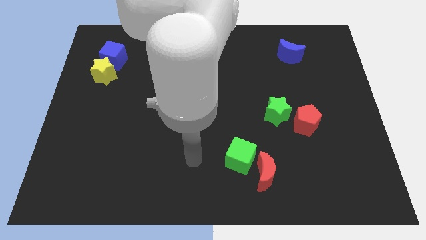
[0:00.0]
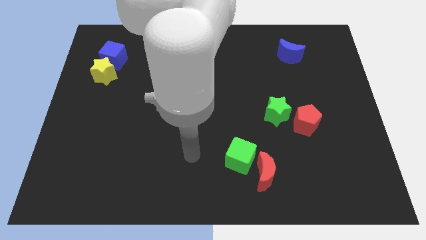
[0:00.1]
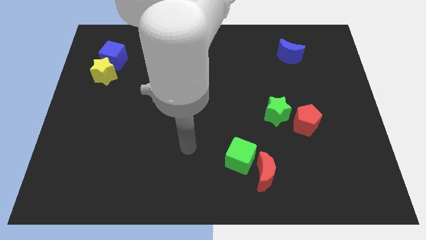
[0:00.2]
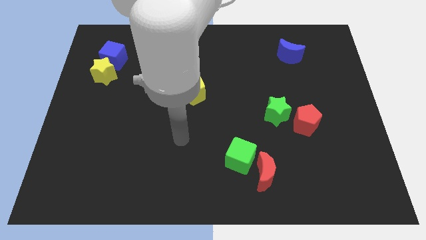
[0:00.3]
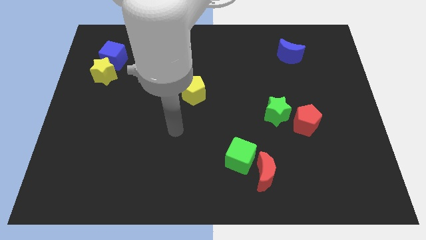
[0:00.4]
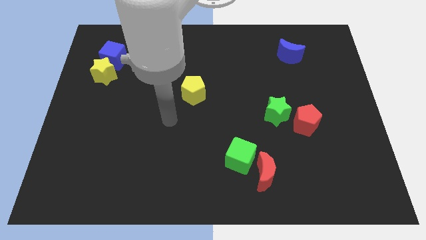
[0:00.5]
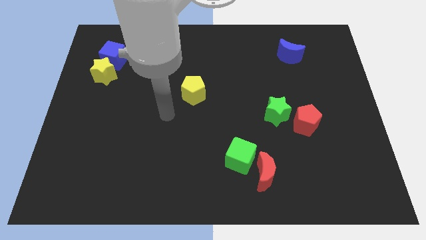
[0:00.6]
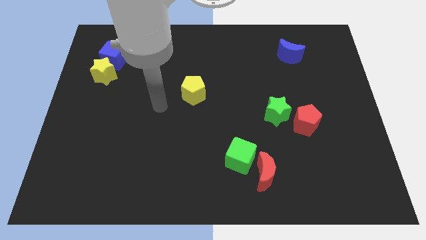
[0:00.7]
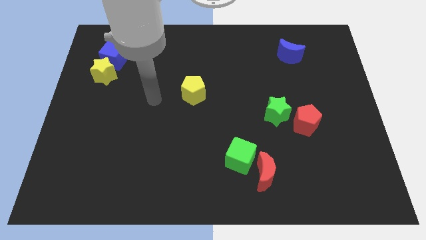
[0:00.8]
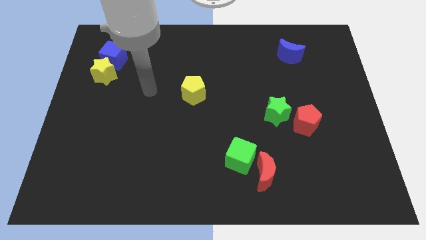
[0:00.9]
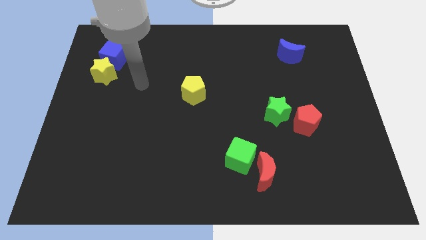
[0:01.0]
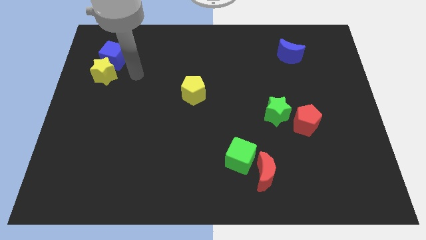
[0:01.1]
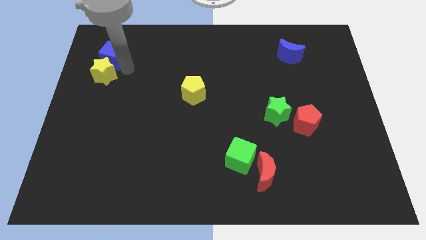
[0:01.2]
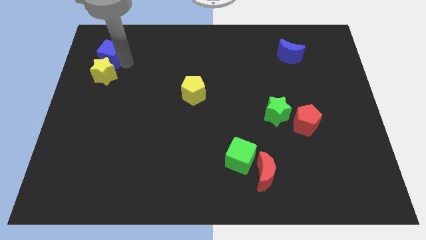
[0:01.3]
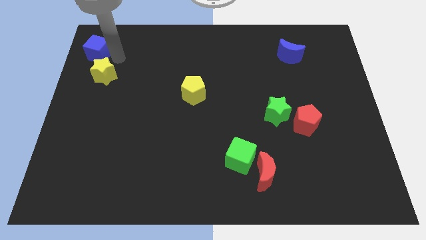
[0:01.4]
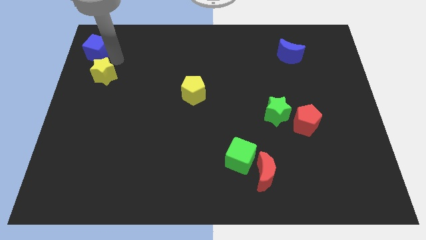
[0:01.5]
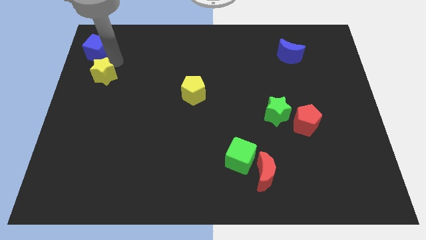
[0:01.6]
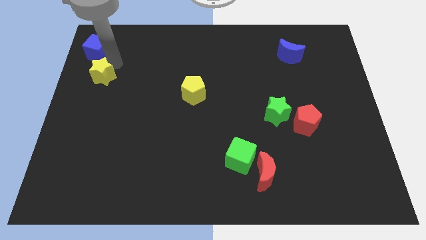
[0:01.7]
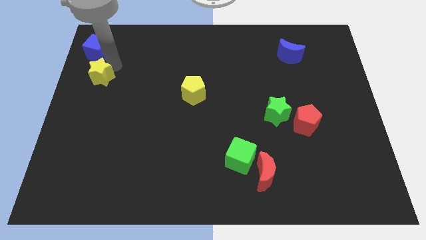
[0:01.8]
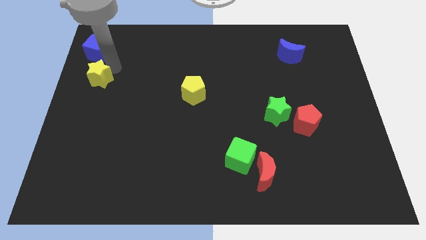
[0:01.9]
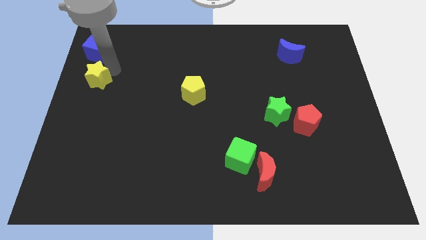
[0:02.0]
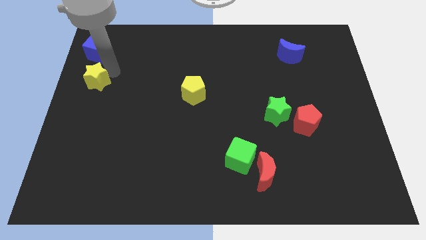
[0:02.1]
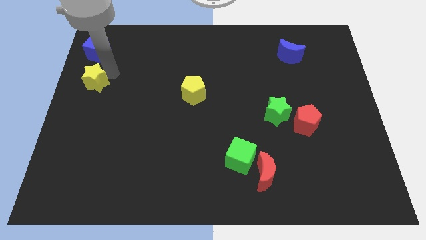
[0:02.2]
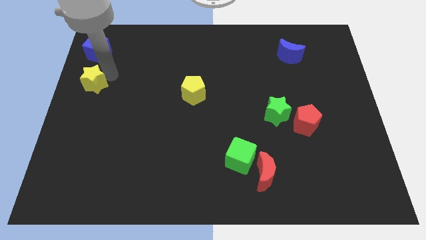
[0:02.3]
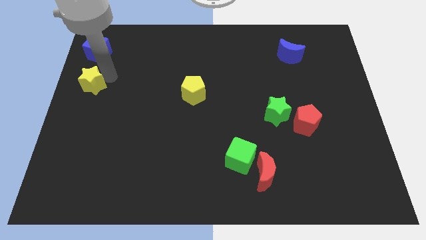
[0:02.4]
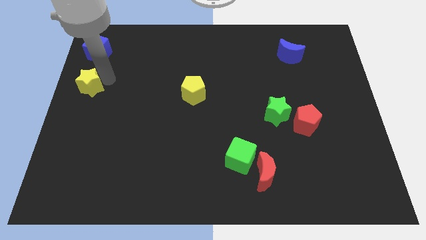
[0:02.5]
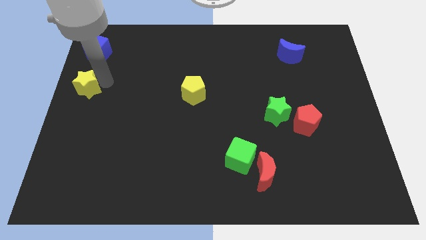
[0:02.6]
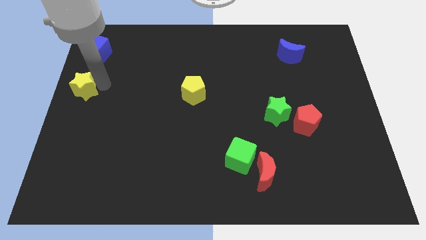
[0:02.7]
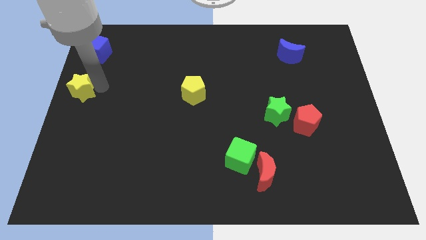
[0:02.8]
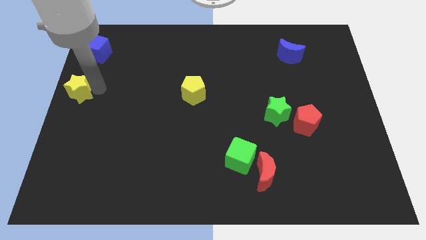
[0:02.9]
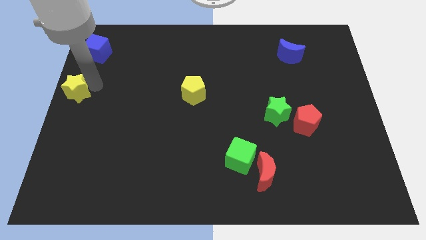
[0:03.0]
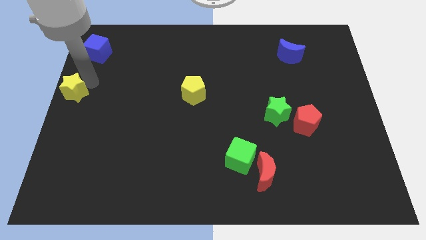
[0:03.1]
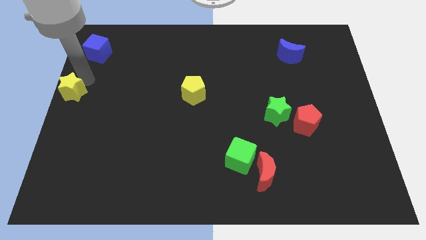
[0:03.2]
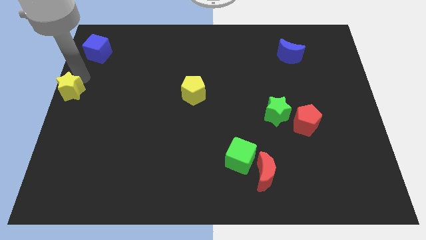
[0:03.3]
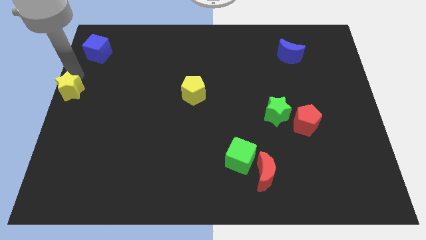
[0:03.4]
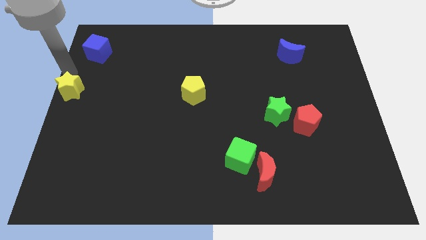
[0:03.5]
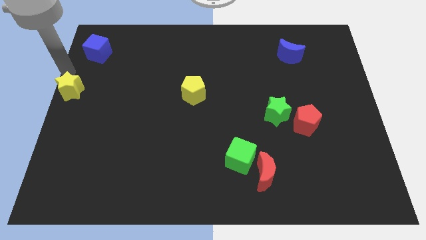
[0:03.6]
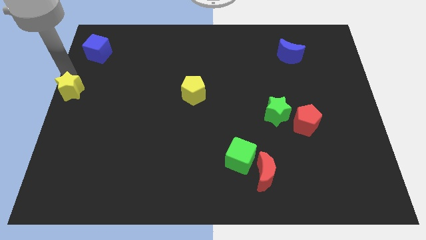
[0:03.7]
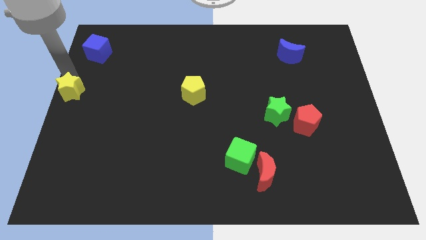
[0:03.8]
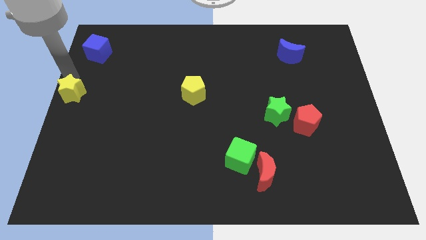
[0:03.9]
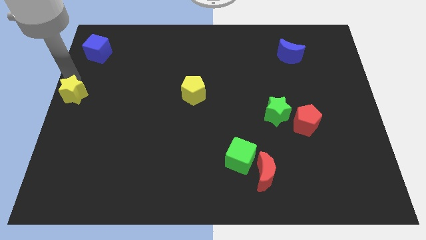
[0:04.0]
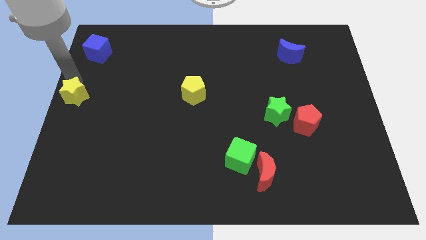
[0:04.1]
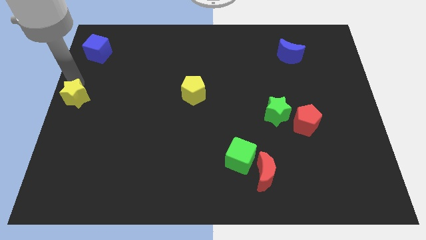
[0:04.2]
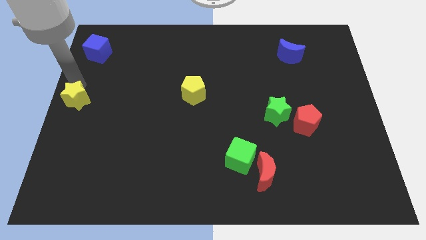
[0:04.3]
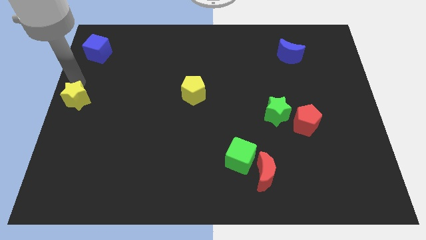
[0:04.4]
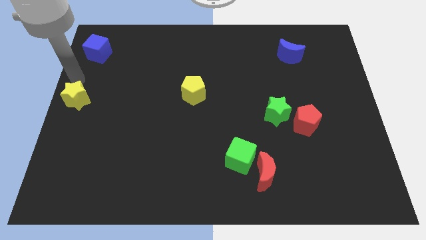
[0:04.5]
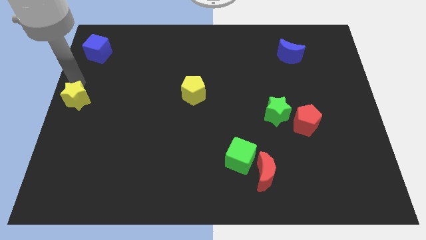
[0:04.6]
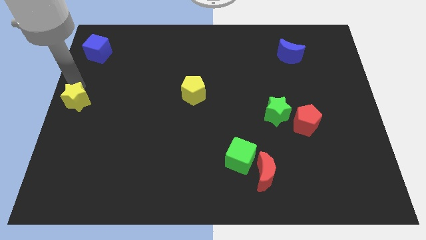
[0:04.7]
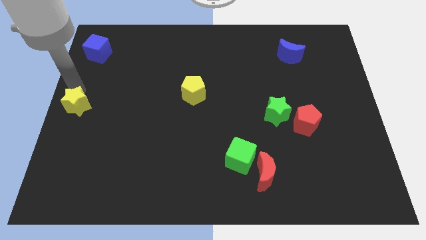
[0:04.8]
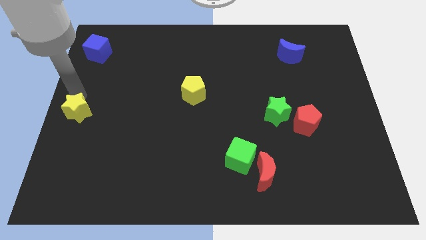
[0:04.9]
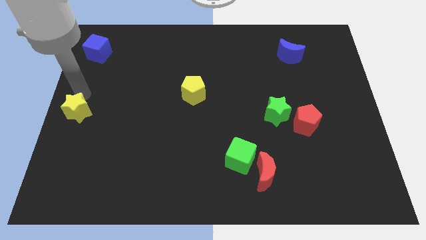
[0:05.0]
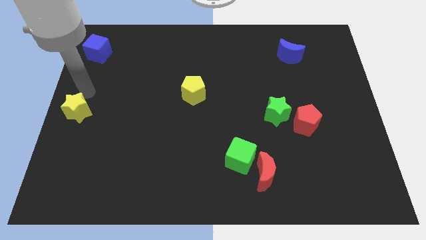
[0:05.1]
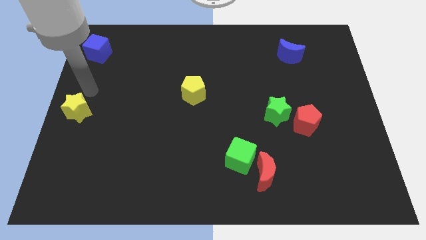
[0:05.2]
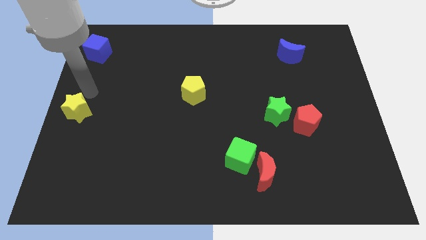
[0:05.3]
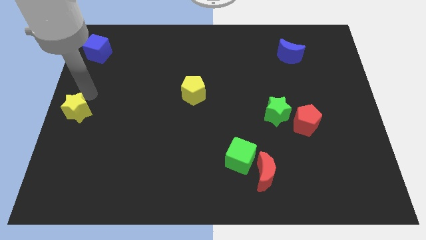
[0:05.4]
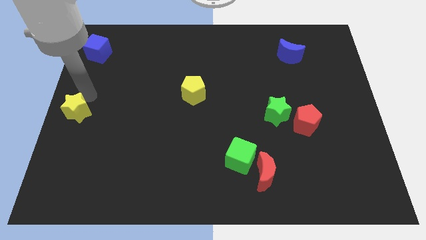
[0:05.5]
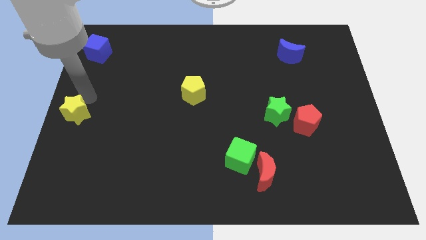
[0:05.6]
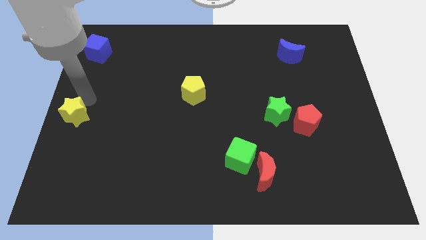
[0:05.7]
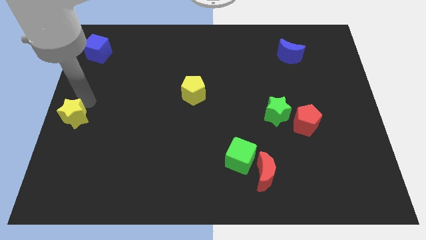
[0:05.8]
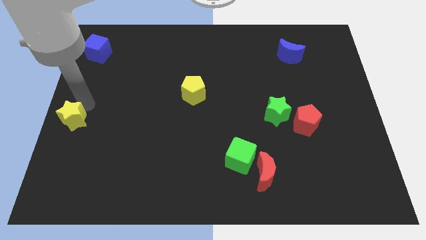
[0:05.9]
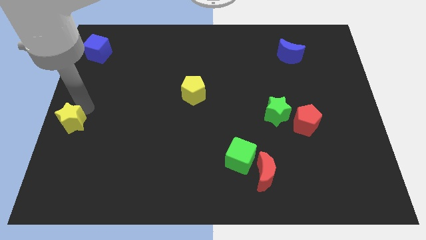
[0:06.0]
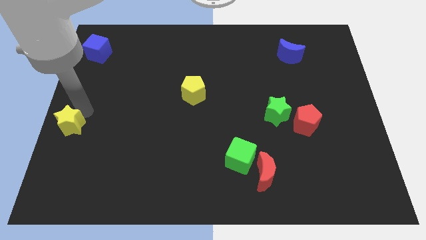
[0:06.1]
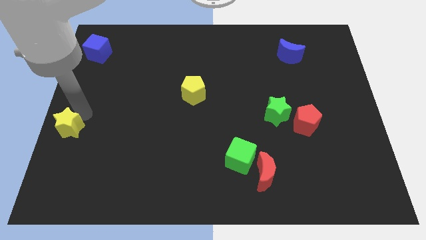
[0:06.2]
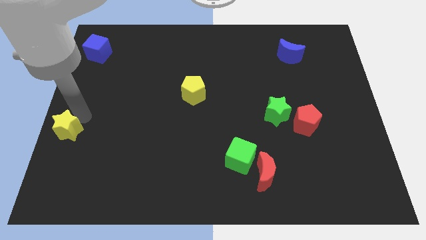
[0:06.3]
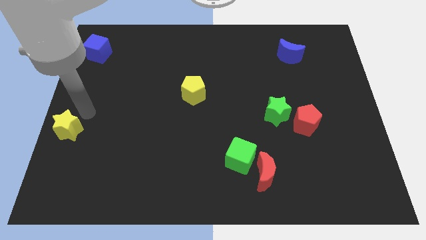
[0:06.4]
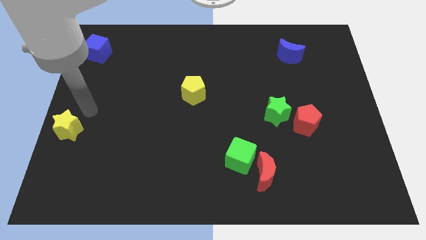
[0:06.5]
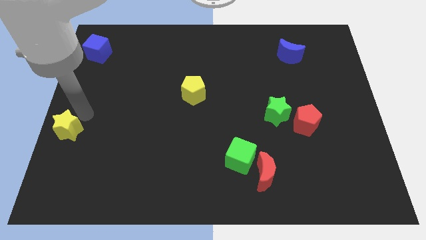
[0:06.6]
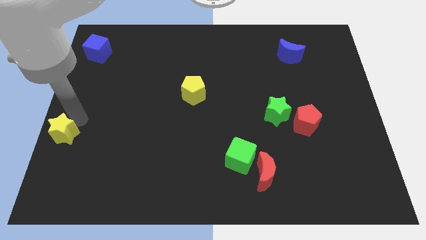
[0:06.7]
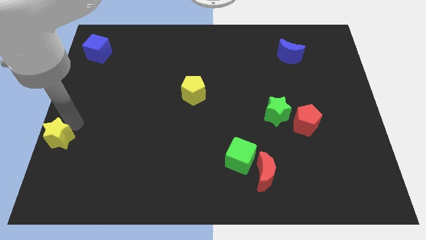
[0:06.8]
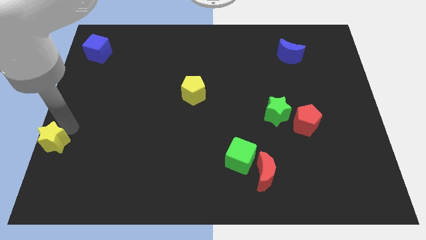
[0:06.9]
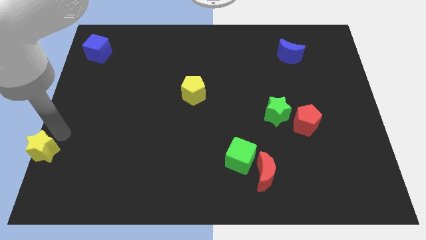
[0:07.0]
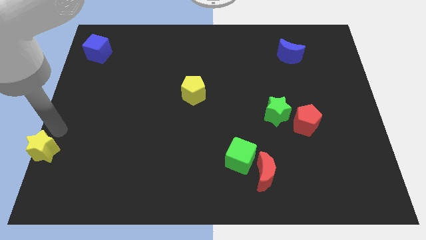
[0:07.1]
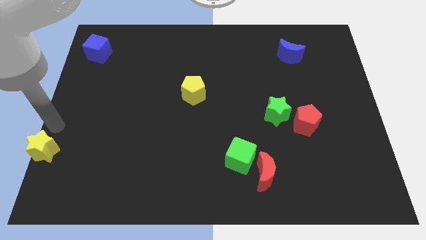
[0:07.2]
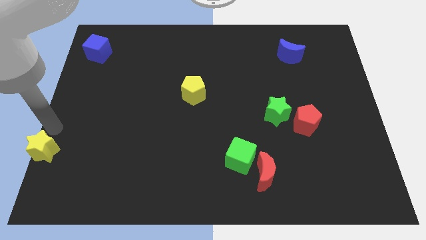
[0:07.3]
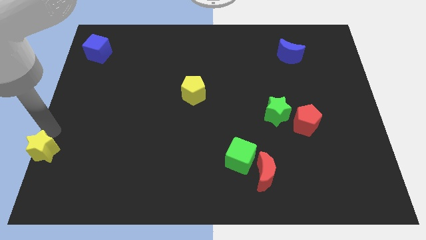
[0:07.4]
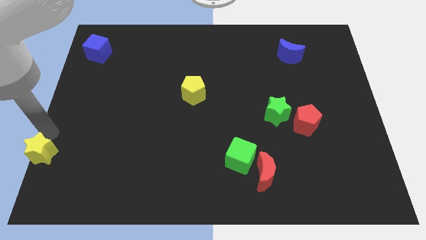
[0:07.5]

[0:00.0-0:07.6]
slide the yellow star to the lower left corner

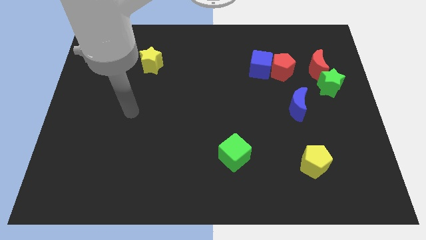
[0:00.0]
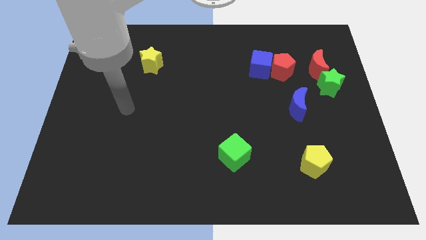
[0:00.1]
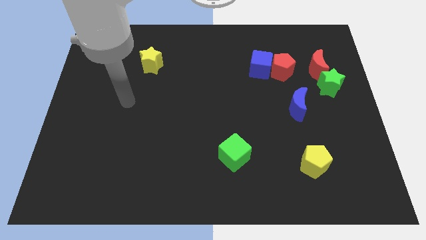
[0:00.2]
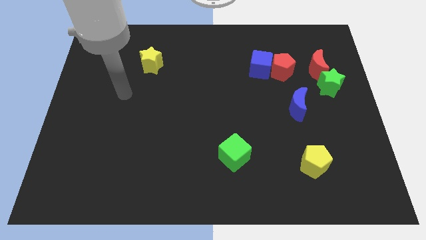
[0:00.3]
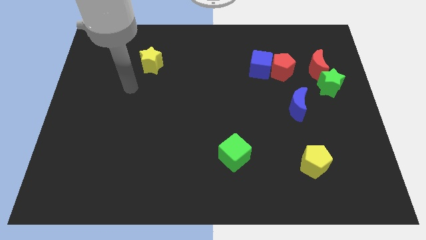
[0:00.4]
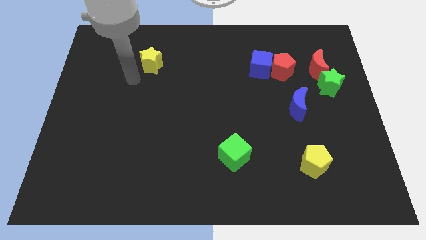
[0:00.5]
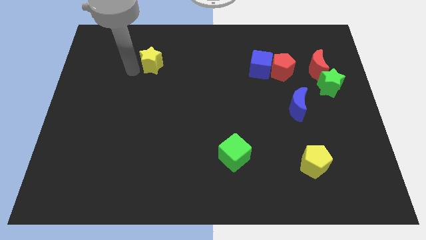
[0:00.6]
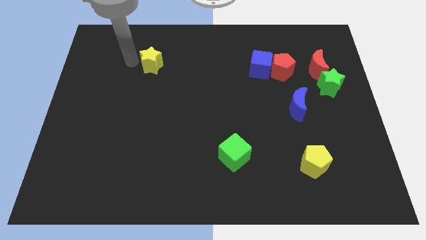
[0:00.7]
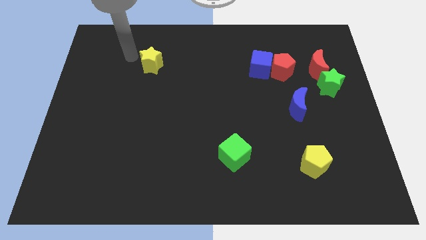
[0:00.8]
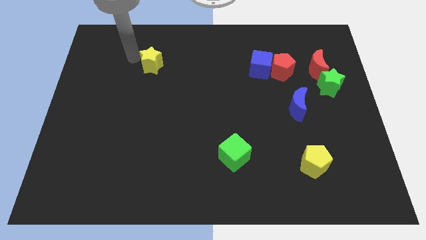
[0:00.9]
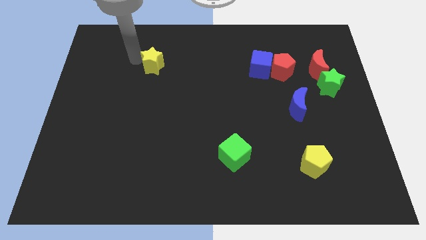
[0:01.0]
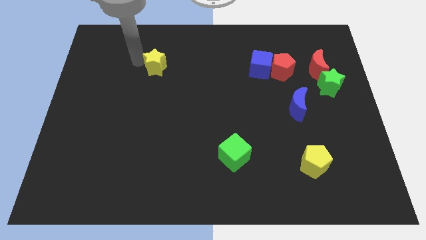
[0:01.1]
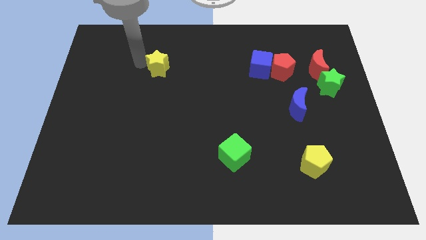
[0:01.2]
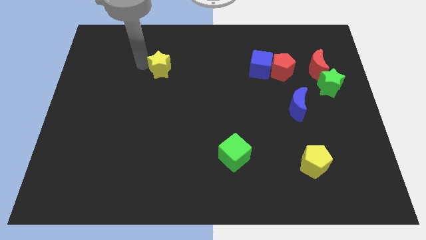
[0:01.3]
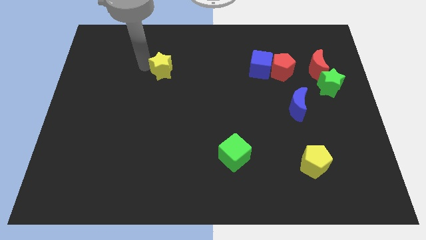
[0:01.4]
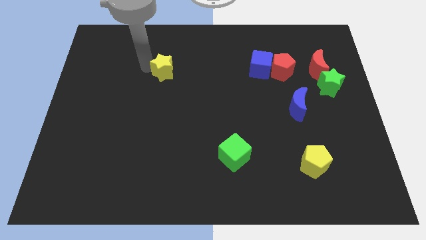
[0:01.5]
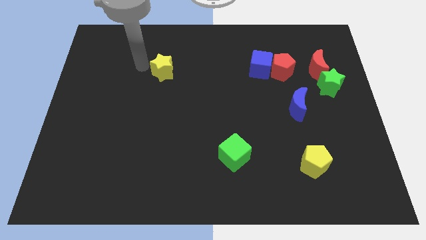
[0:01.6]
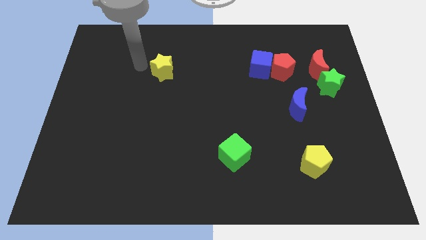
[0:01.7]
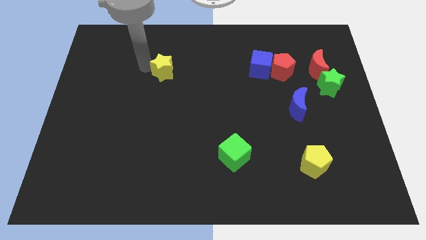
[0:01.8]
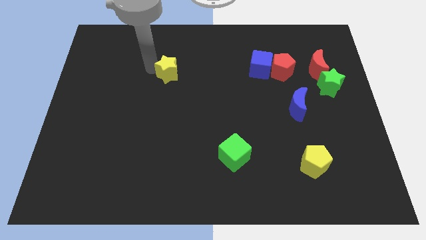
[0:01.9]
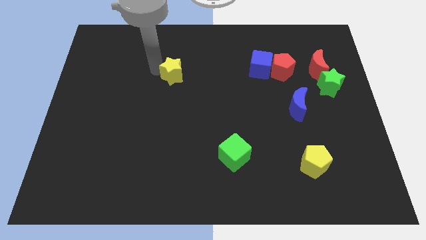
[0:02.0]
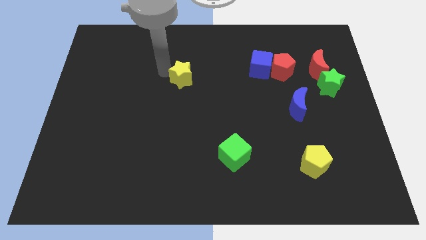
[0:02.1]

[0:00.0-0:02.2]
slide the yellow star to the center of the board
